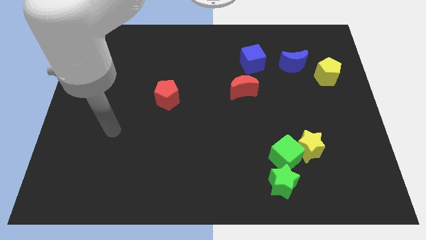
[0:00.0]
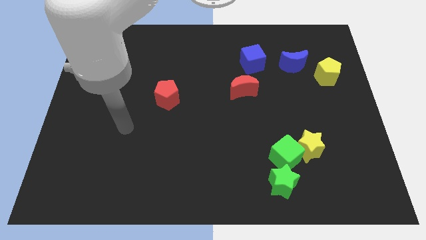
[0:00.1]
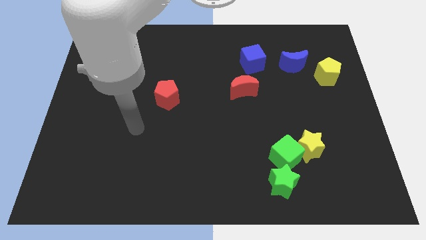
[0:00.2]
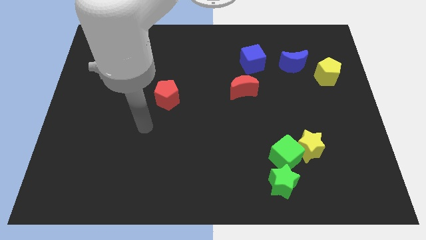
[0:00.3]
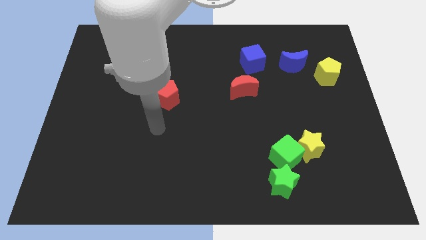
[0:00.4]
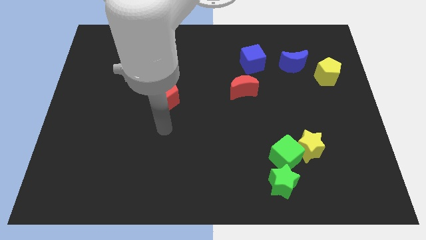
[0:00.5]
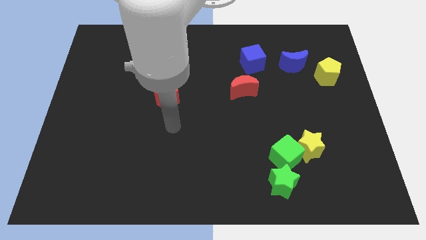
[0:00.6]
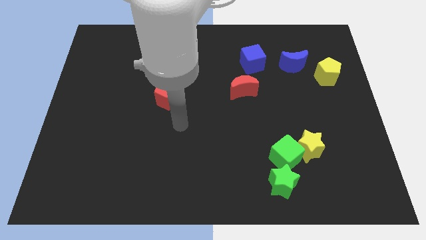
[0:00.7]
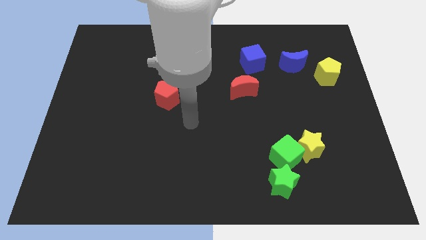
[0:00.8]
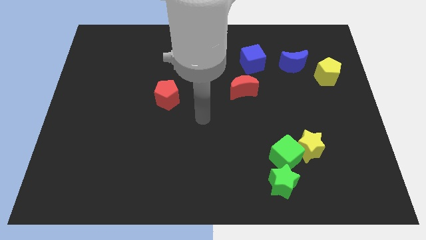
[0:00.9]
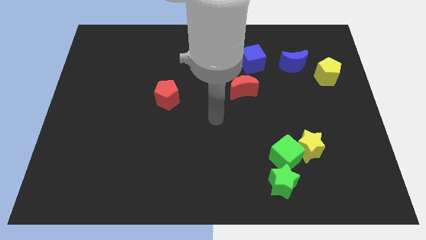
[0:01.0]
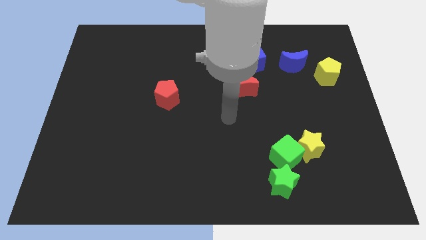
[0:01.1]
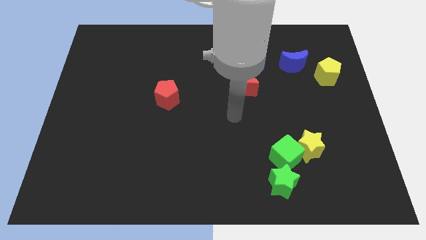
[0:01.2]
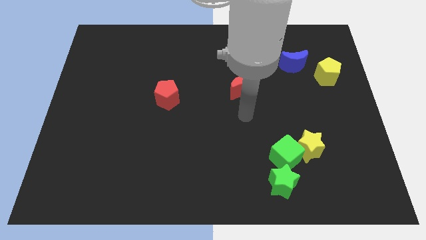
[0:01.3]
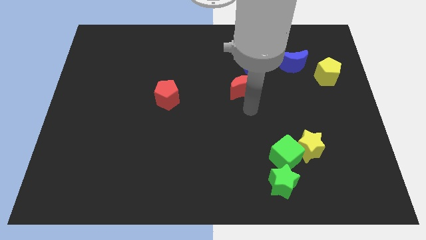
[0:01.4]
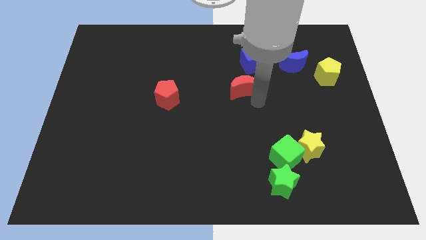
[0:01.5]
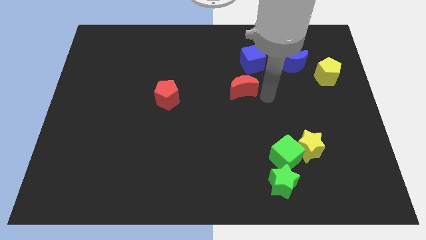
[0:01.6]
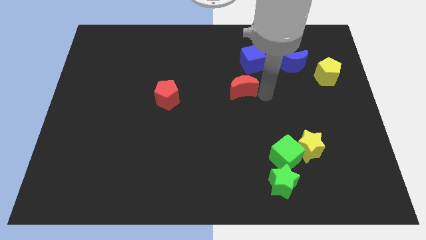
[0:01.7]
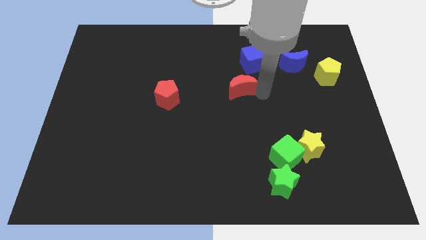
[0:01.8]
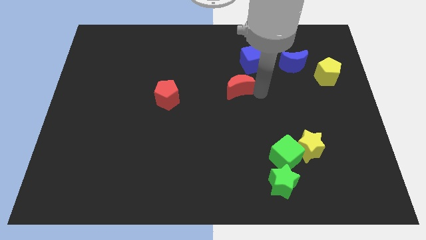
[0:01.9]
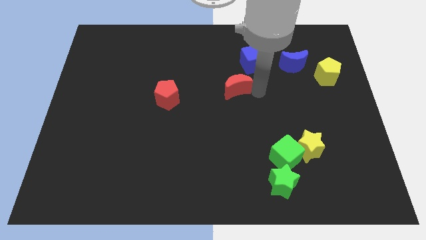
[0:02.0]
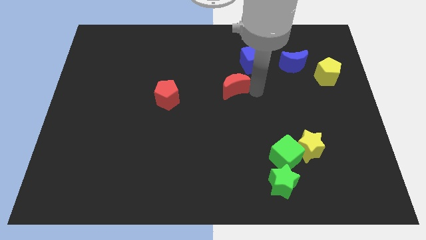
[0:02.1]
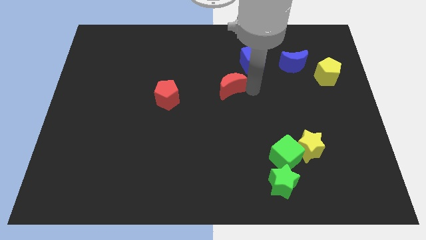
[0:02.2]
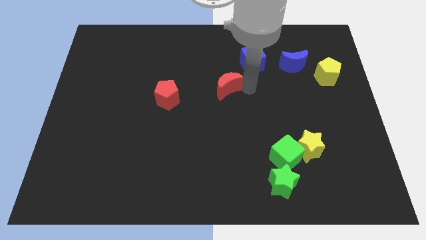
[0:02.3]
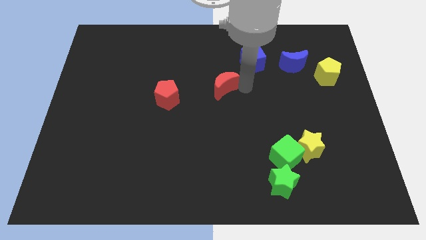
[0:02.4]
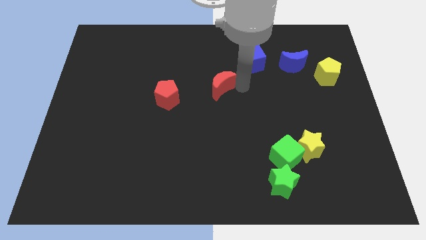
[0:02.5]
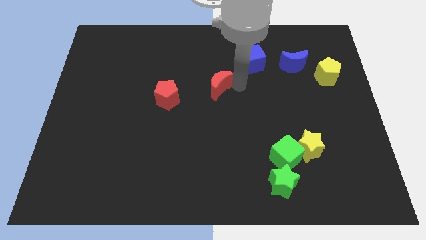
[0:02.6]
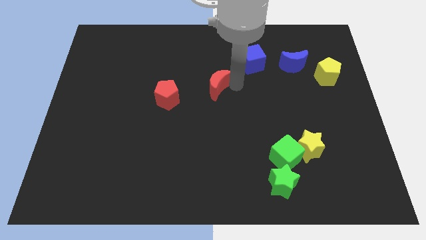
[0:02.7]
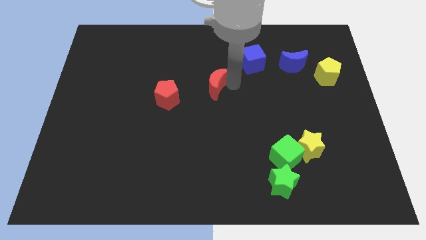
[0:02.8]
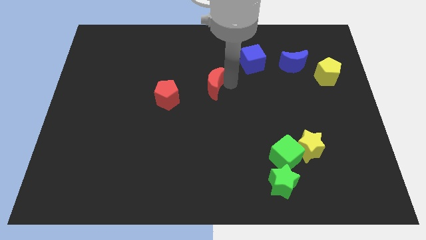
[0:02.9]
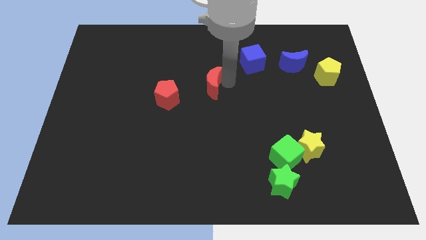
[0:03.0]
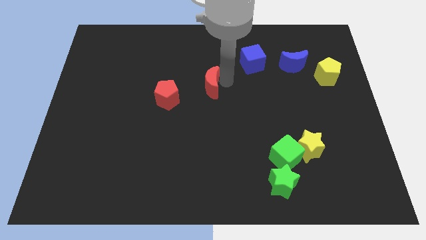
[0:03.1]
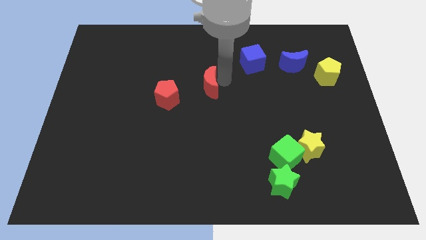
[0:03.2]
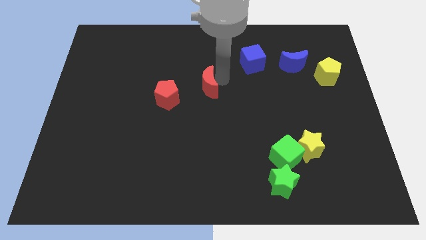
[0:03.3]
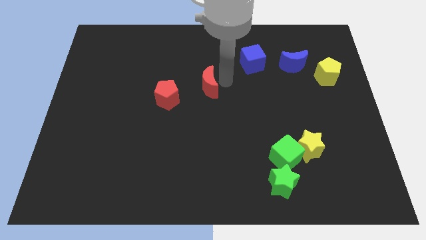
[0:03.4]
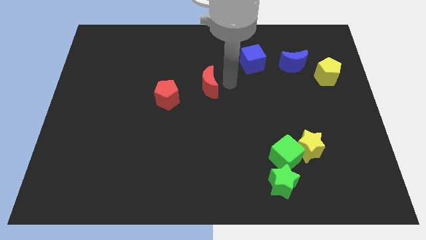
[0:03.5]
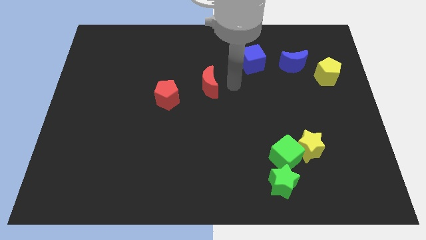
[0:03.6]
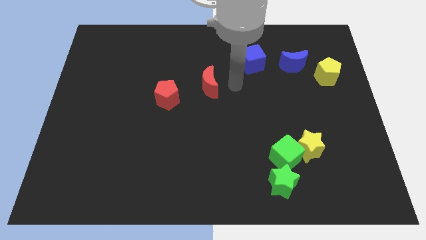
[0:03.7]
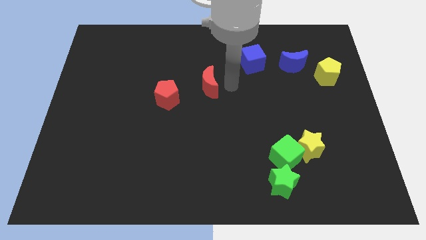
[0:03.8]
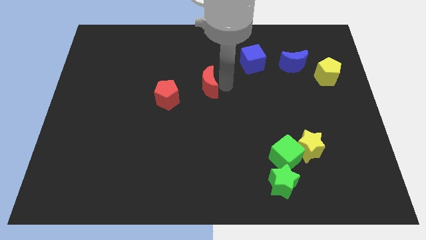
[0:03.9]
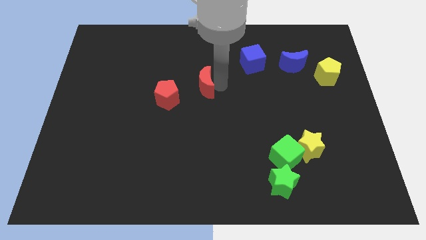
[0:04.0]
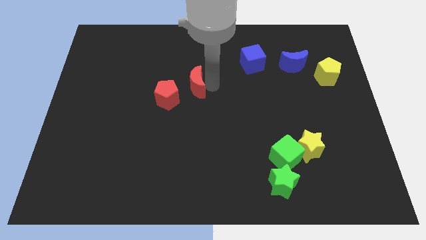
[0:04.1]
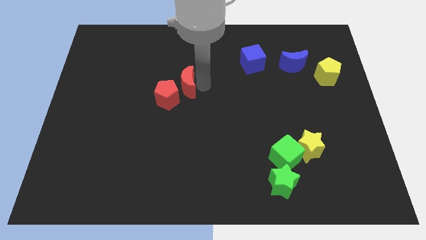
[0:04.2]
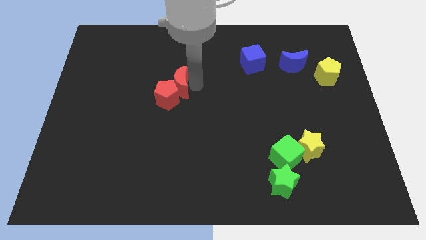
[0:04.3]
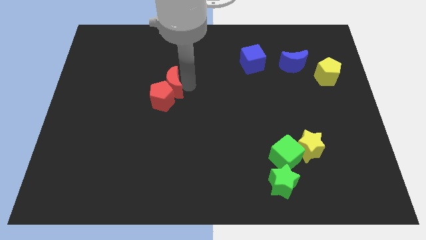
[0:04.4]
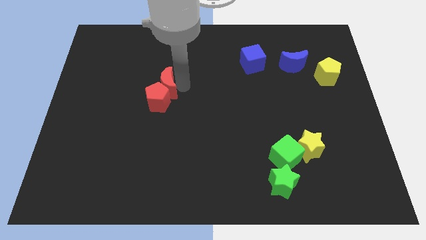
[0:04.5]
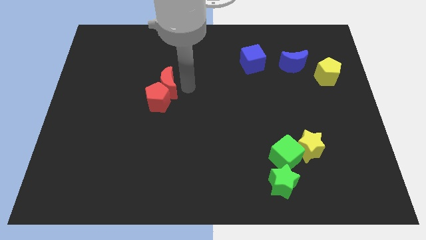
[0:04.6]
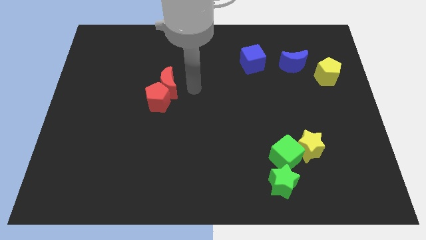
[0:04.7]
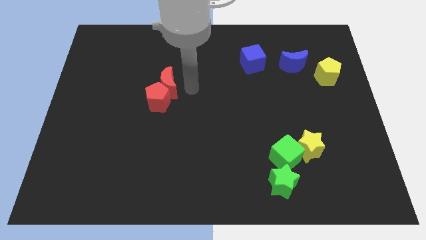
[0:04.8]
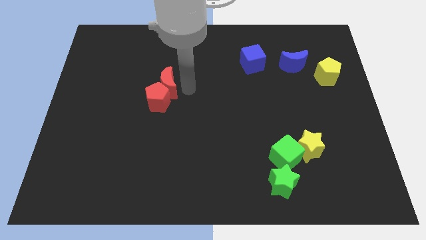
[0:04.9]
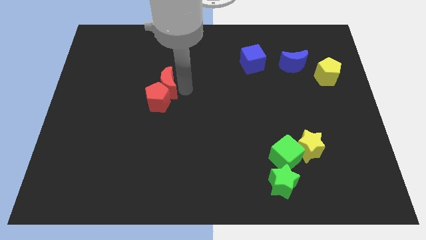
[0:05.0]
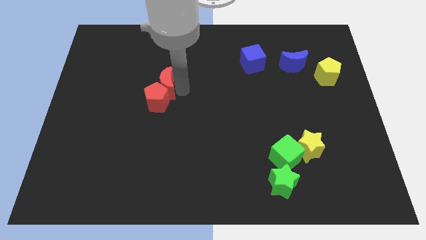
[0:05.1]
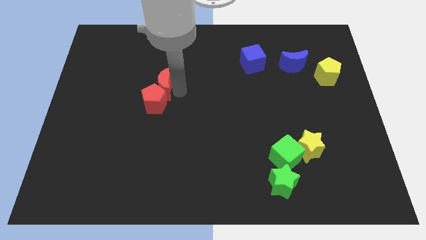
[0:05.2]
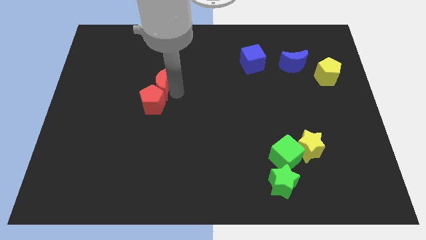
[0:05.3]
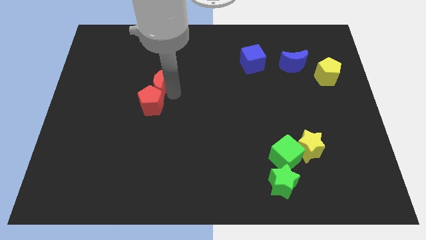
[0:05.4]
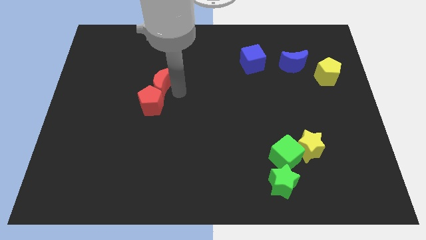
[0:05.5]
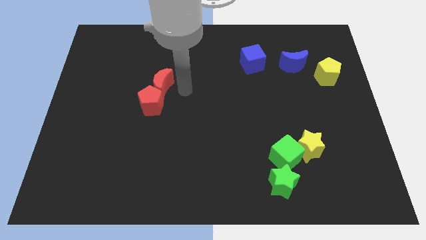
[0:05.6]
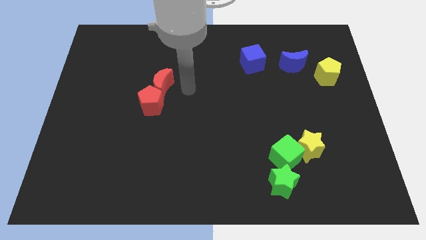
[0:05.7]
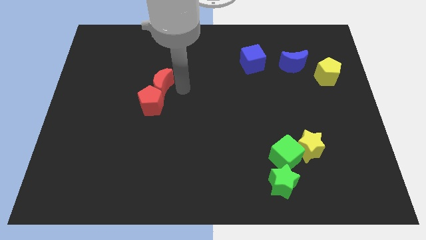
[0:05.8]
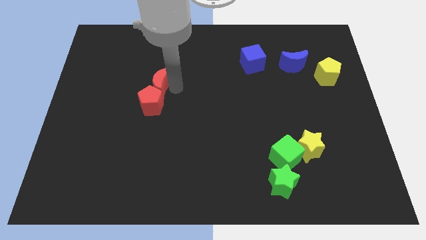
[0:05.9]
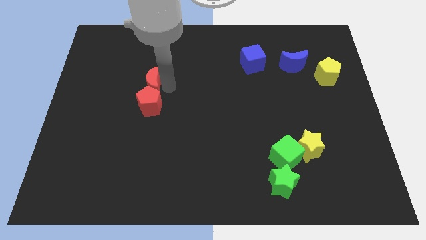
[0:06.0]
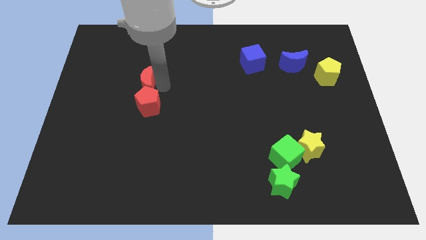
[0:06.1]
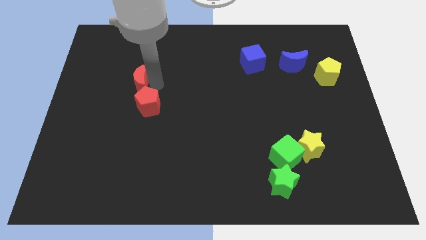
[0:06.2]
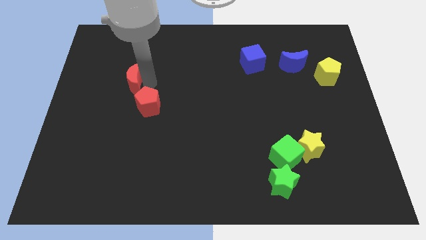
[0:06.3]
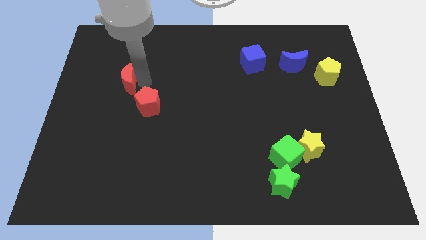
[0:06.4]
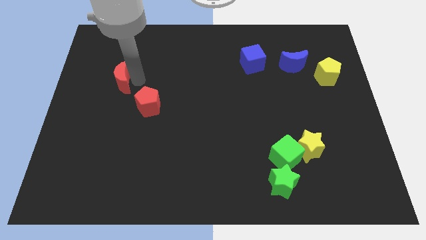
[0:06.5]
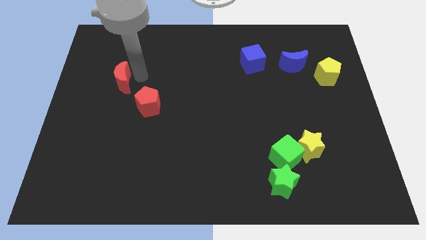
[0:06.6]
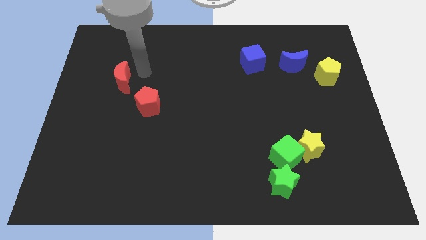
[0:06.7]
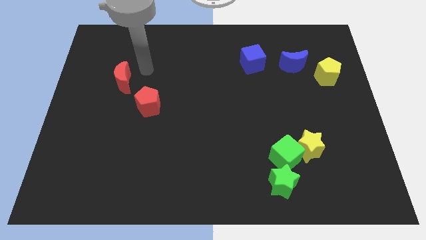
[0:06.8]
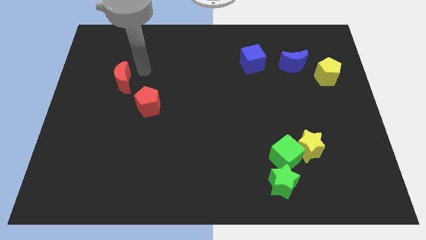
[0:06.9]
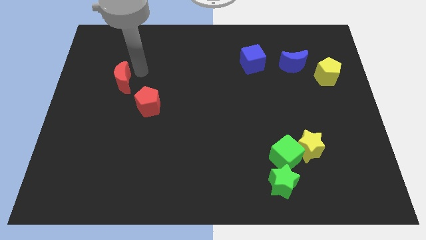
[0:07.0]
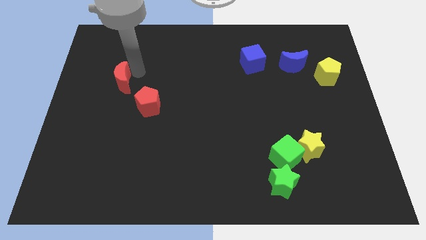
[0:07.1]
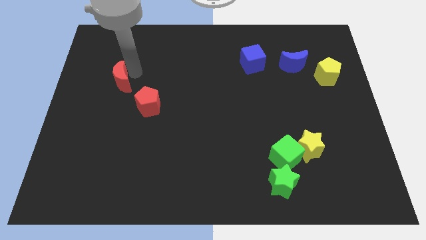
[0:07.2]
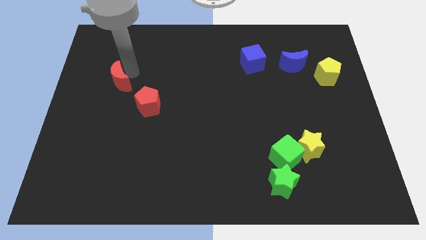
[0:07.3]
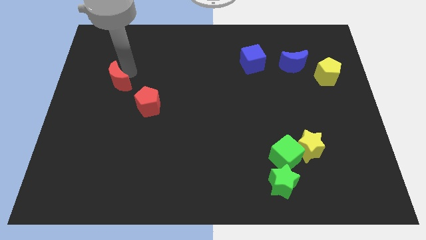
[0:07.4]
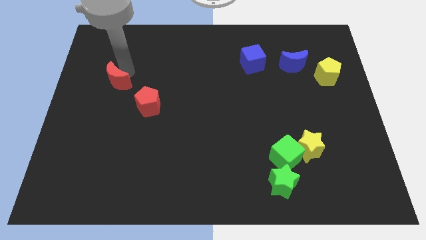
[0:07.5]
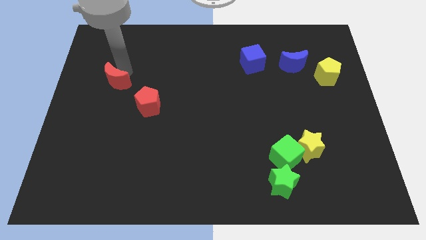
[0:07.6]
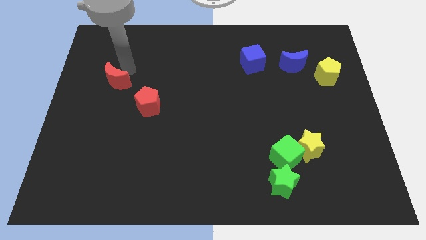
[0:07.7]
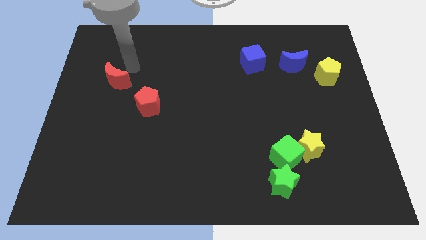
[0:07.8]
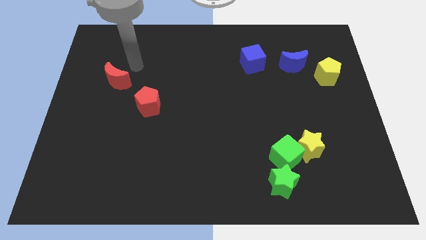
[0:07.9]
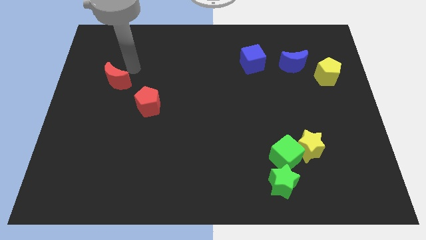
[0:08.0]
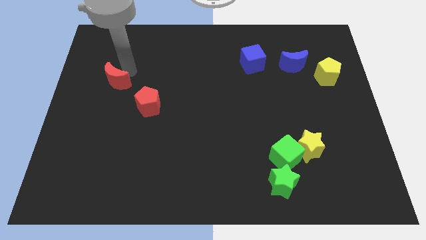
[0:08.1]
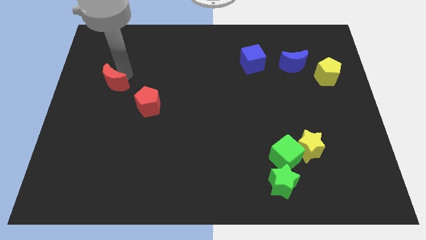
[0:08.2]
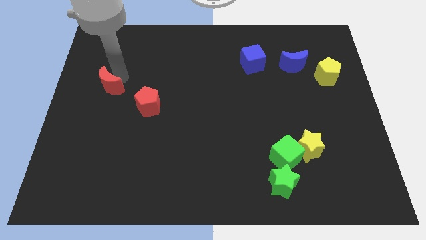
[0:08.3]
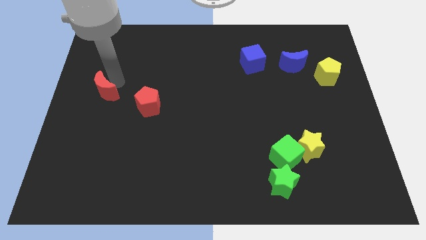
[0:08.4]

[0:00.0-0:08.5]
slide the red moon to the left side
